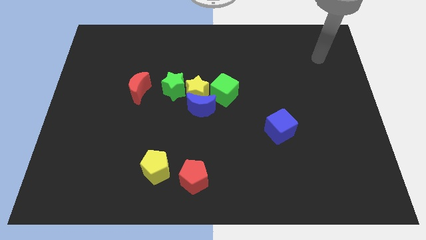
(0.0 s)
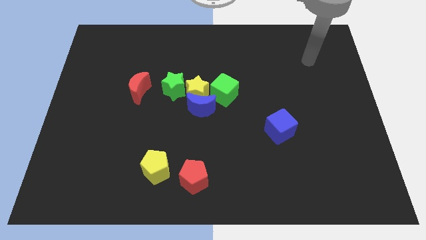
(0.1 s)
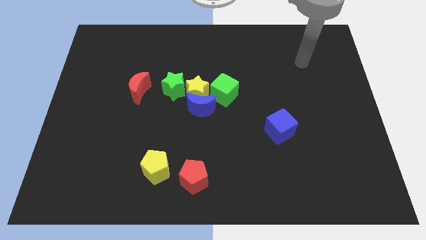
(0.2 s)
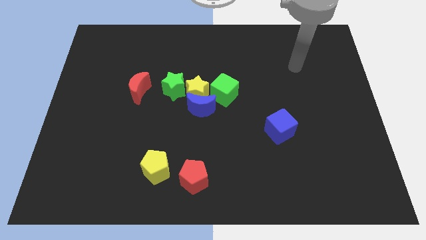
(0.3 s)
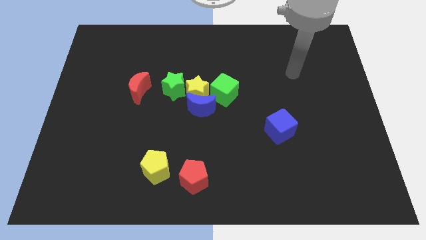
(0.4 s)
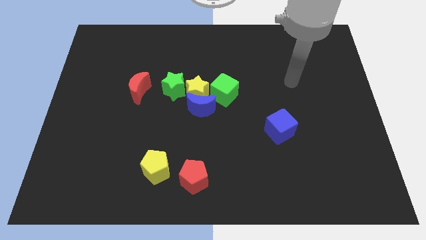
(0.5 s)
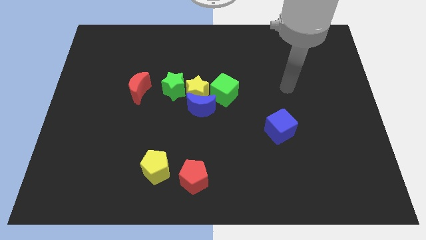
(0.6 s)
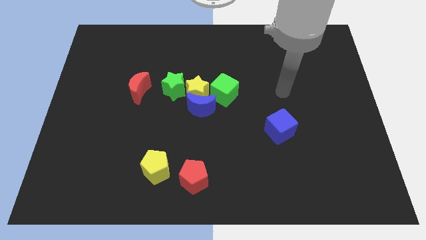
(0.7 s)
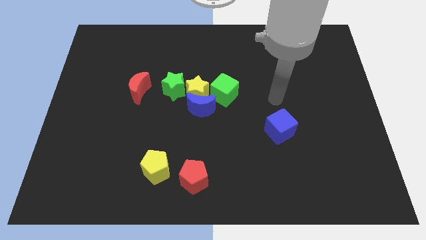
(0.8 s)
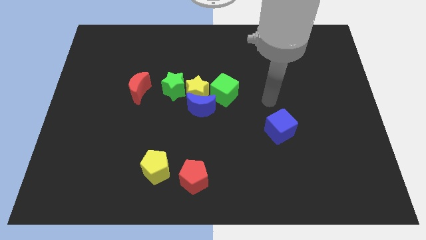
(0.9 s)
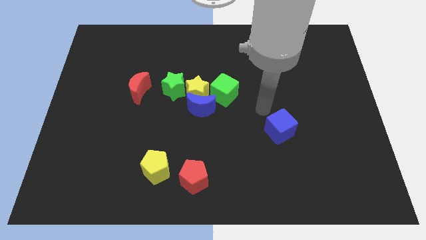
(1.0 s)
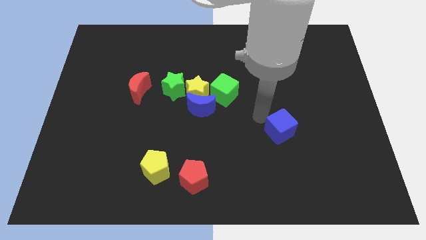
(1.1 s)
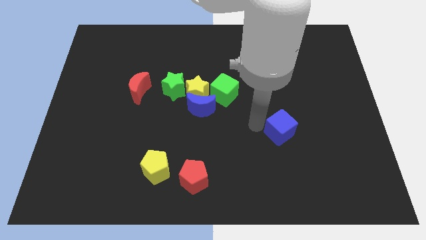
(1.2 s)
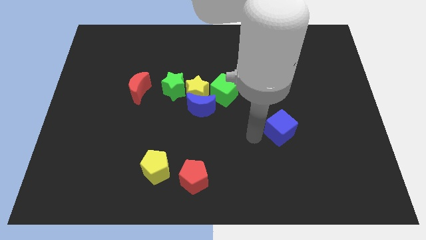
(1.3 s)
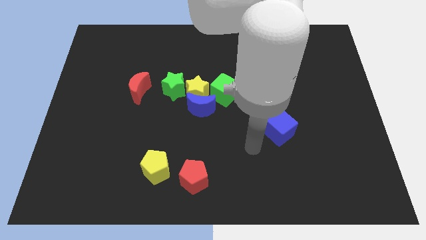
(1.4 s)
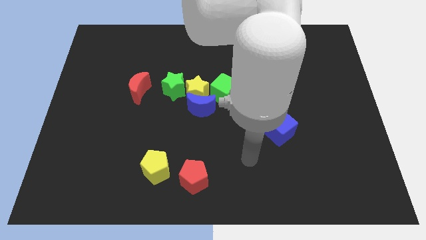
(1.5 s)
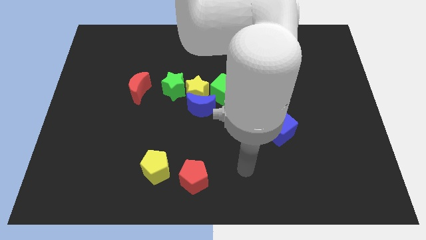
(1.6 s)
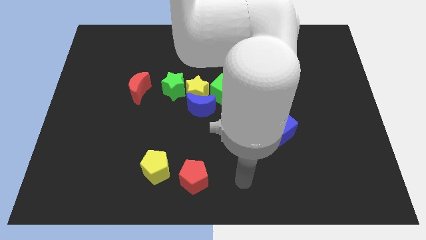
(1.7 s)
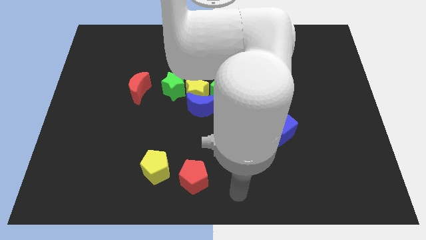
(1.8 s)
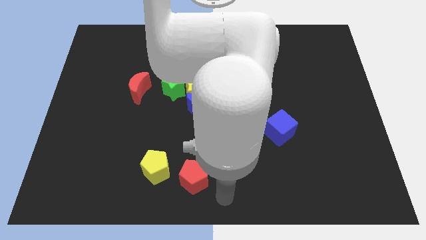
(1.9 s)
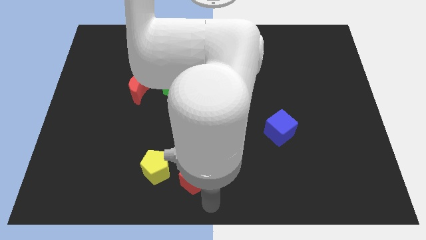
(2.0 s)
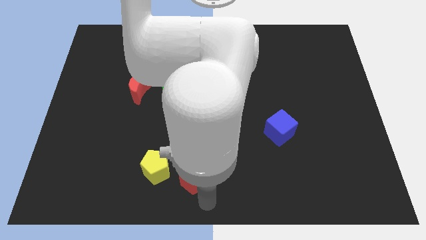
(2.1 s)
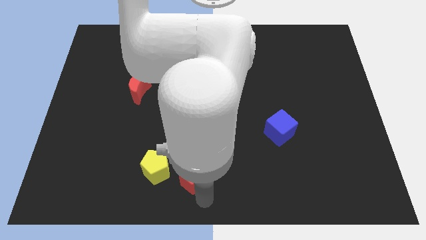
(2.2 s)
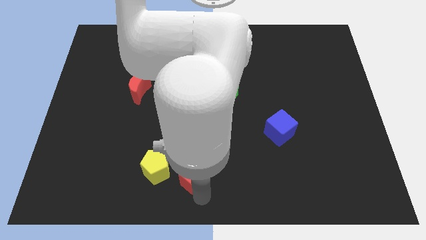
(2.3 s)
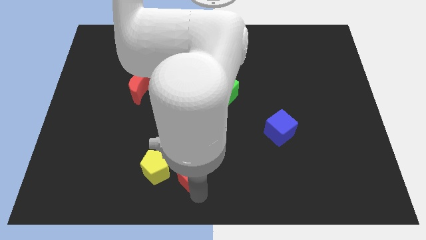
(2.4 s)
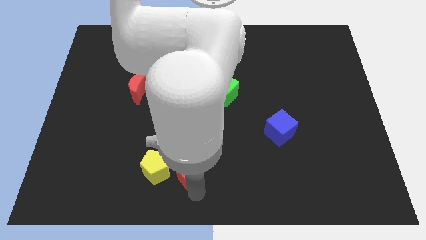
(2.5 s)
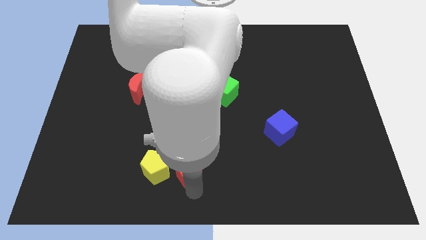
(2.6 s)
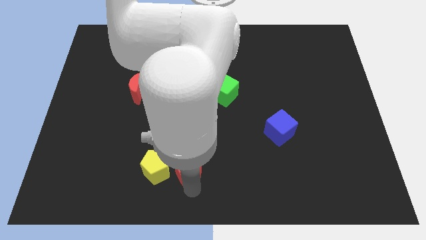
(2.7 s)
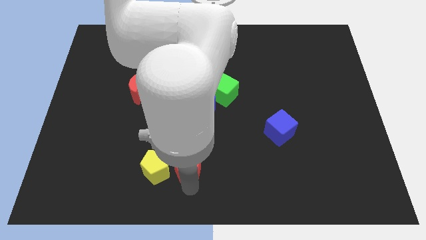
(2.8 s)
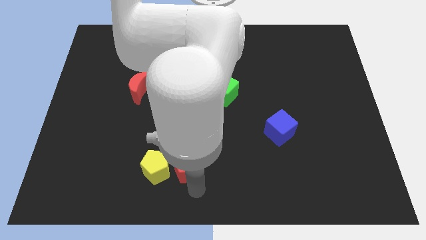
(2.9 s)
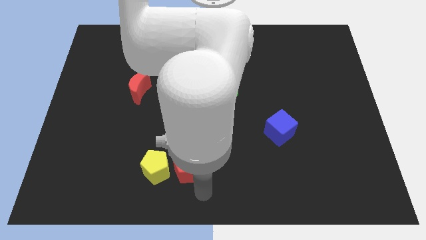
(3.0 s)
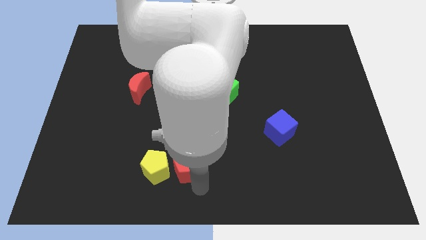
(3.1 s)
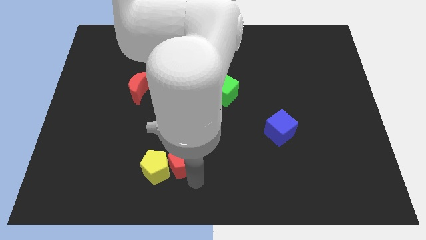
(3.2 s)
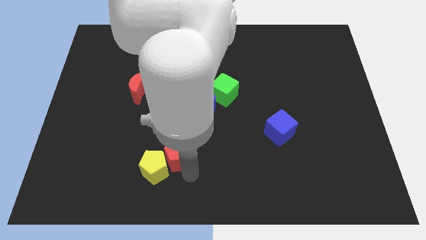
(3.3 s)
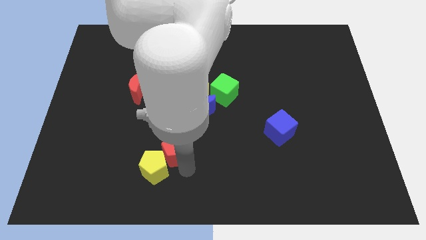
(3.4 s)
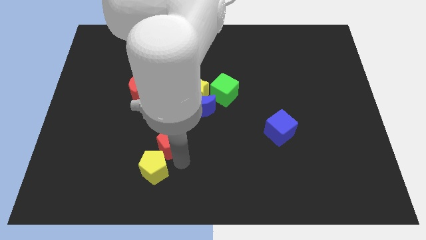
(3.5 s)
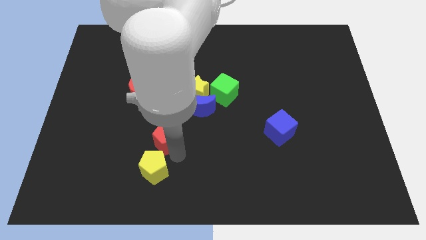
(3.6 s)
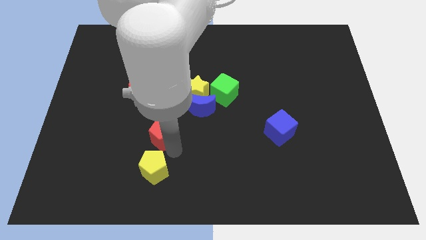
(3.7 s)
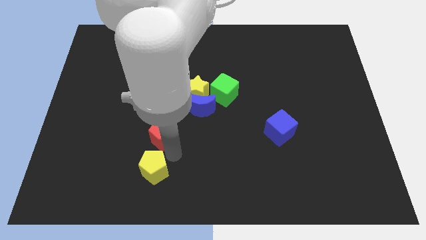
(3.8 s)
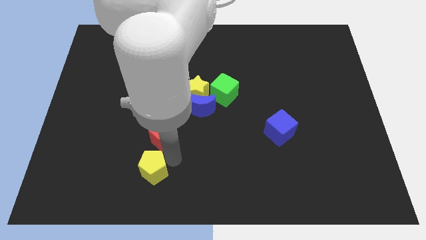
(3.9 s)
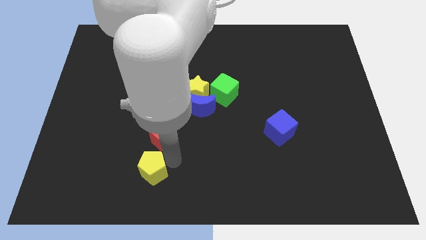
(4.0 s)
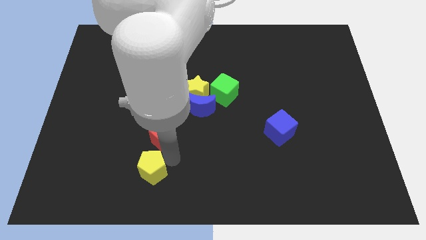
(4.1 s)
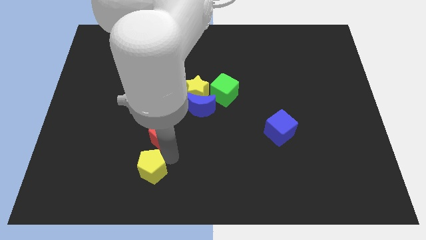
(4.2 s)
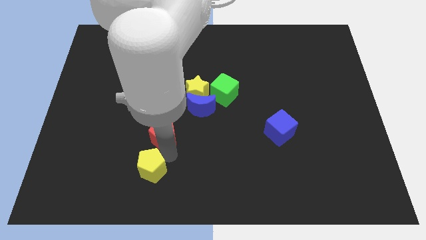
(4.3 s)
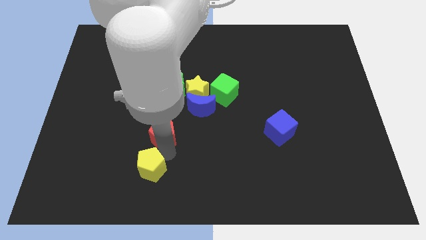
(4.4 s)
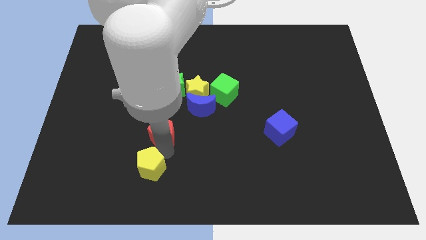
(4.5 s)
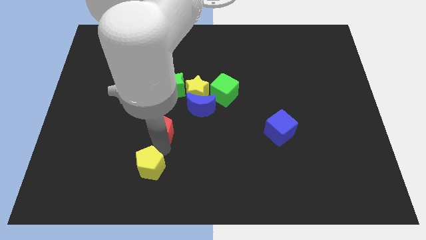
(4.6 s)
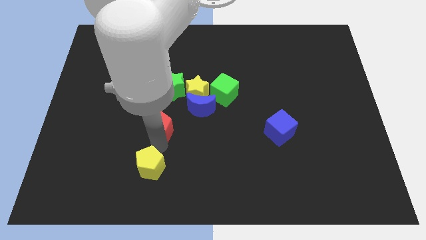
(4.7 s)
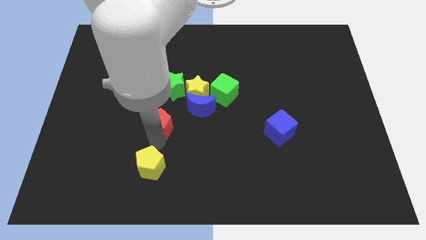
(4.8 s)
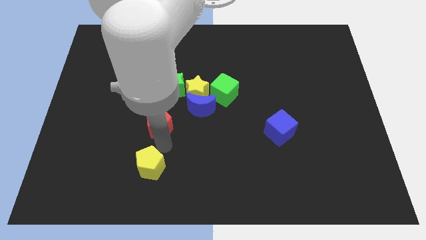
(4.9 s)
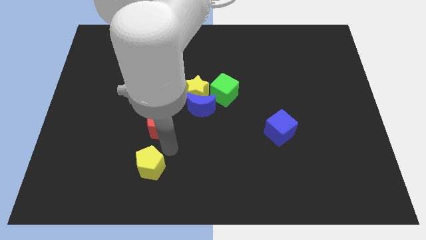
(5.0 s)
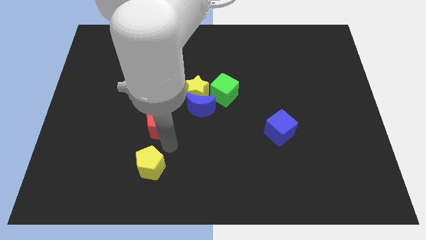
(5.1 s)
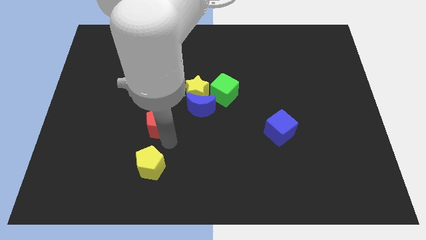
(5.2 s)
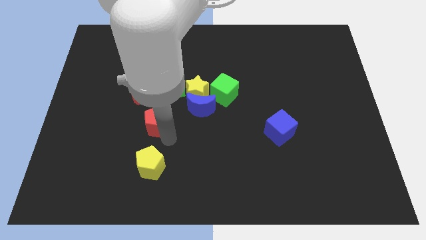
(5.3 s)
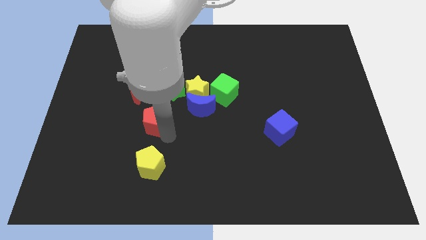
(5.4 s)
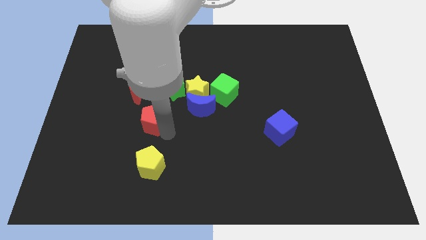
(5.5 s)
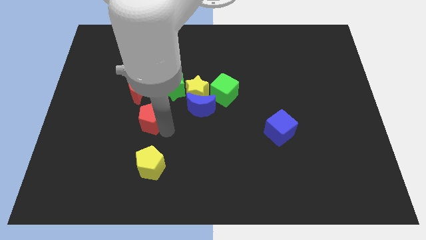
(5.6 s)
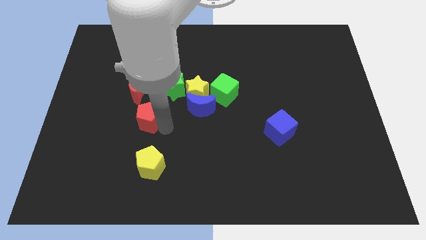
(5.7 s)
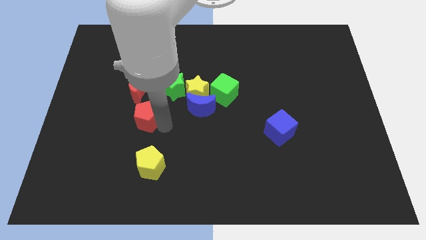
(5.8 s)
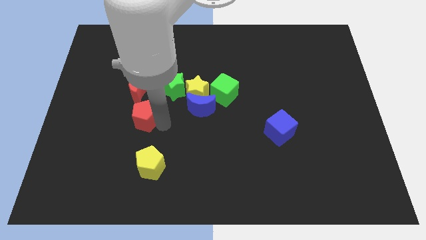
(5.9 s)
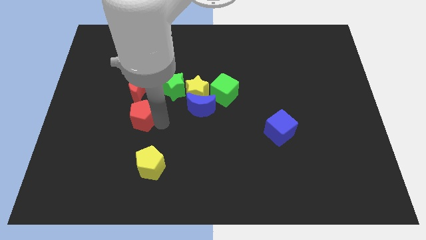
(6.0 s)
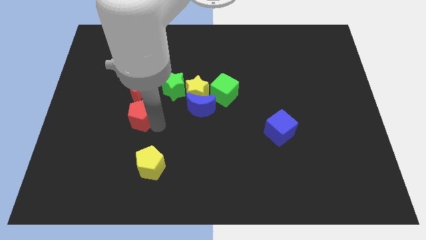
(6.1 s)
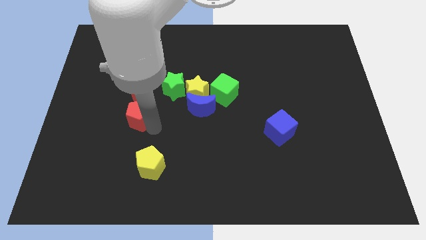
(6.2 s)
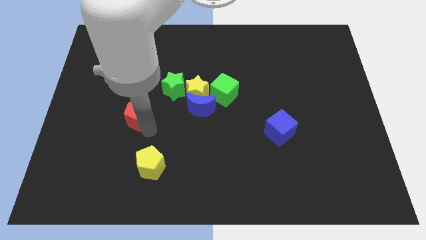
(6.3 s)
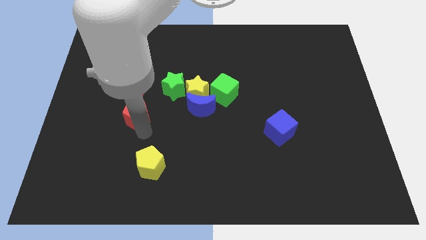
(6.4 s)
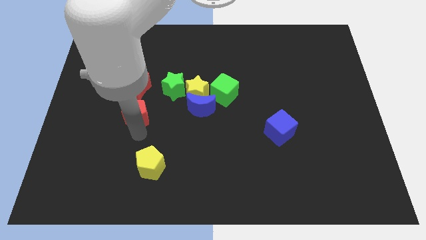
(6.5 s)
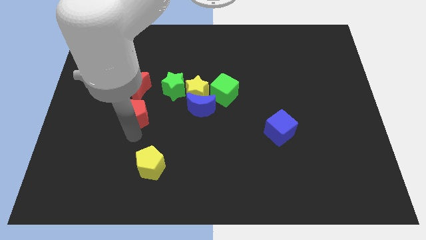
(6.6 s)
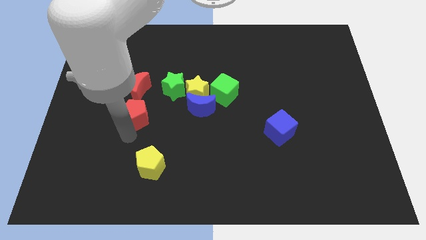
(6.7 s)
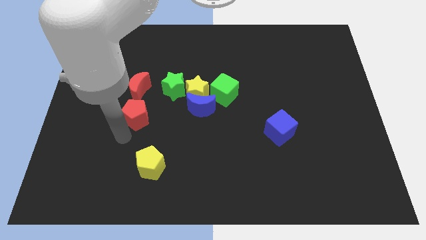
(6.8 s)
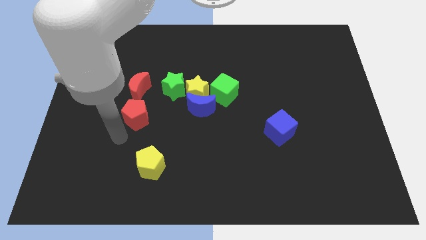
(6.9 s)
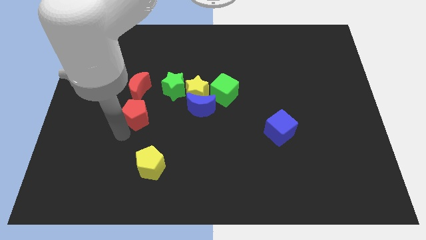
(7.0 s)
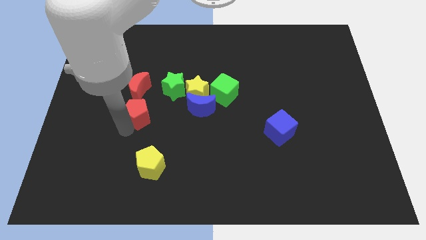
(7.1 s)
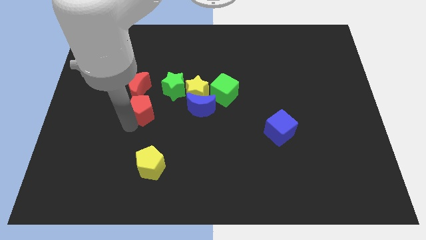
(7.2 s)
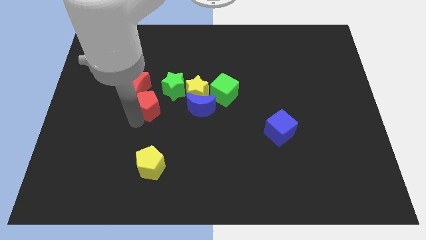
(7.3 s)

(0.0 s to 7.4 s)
slide the red pentagon to the red moon

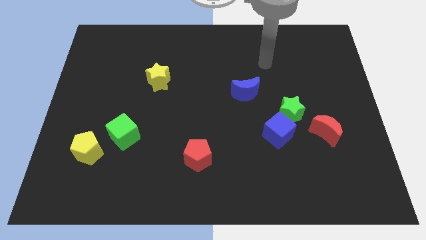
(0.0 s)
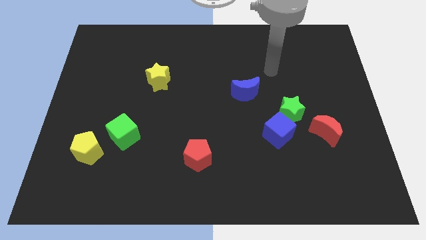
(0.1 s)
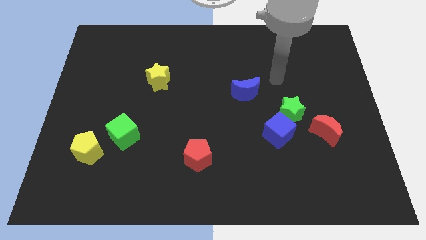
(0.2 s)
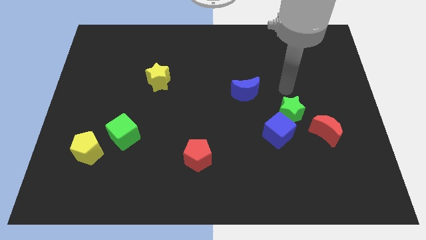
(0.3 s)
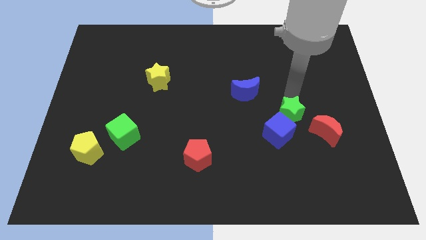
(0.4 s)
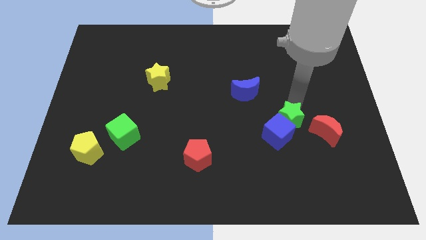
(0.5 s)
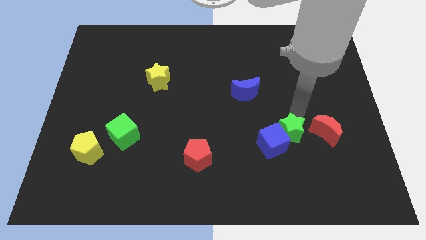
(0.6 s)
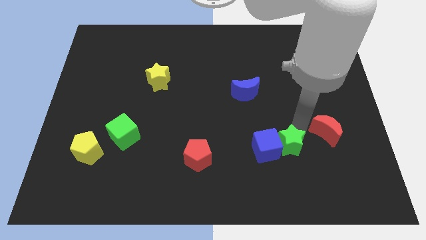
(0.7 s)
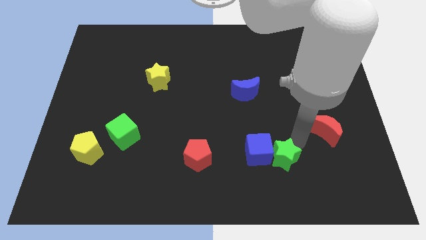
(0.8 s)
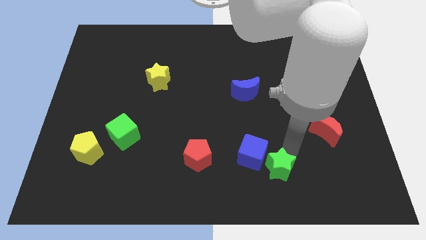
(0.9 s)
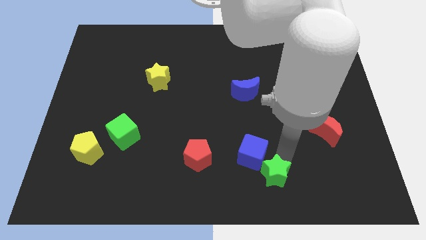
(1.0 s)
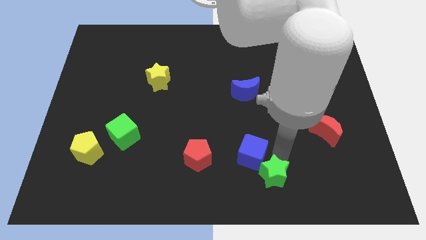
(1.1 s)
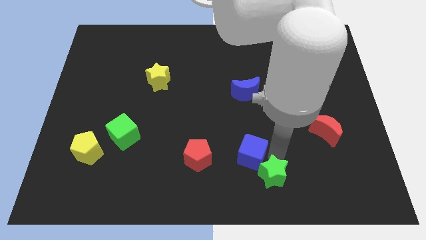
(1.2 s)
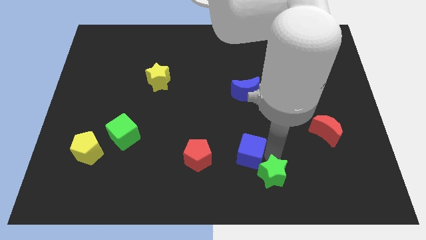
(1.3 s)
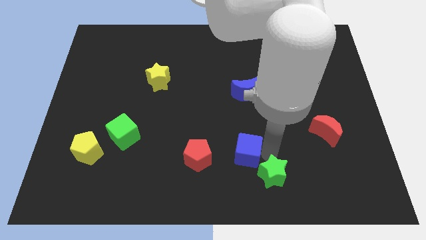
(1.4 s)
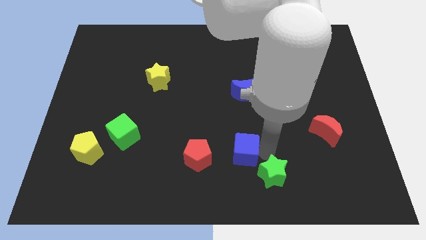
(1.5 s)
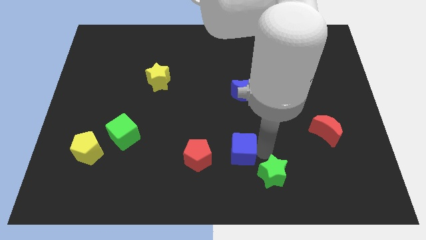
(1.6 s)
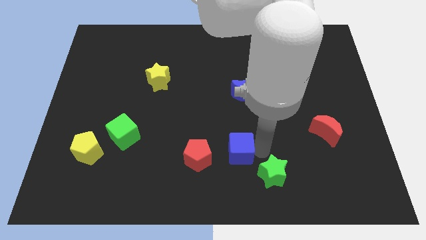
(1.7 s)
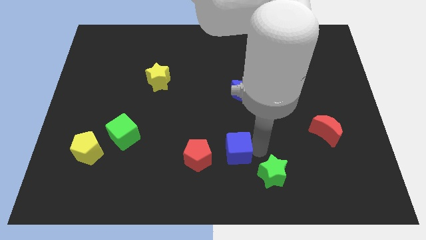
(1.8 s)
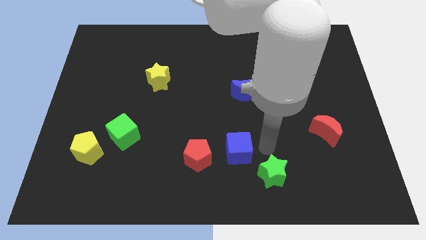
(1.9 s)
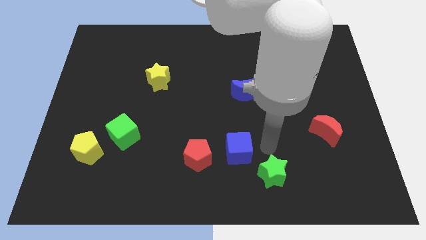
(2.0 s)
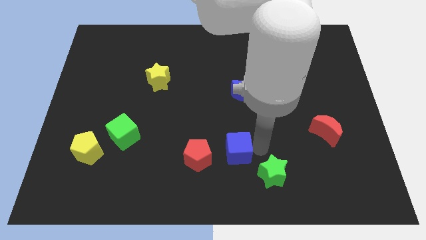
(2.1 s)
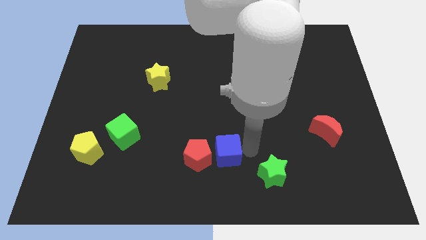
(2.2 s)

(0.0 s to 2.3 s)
put the blue cube next to the red pentagon
